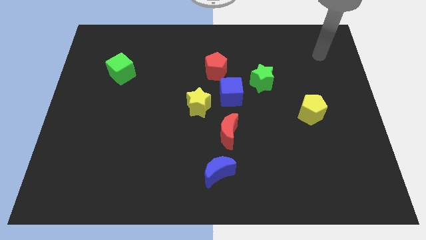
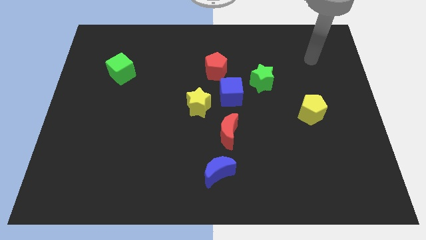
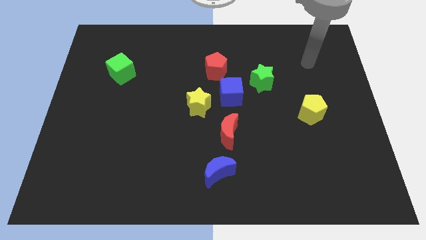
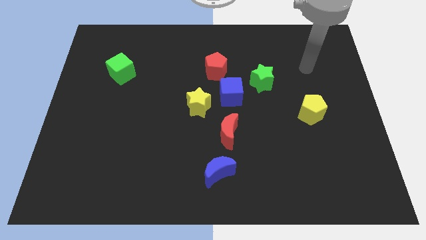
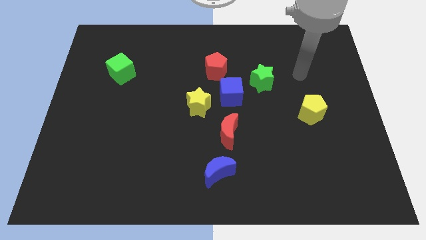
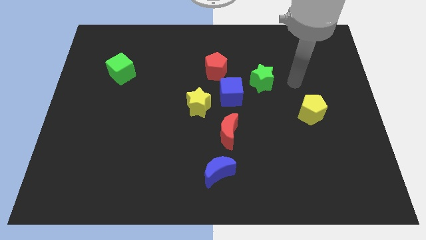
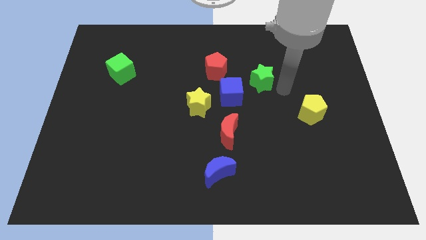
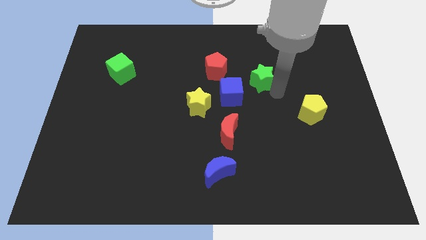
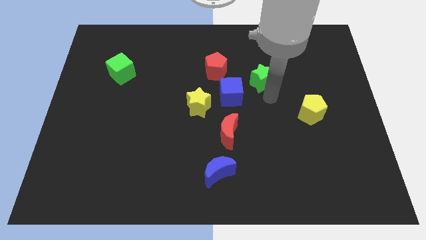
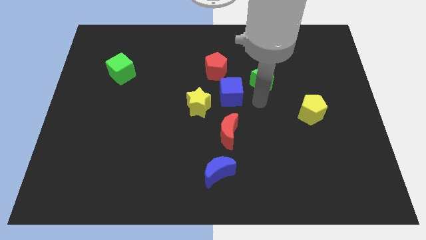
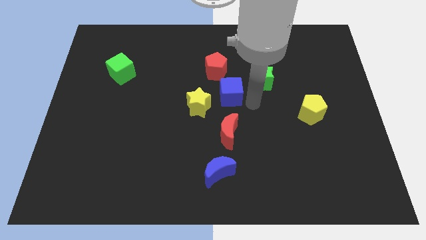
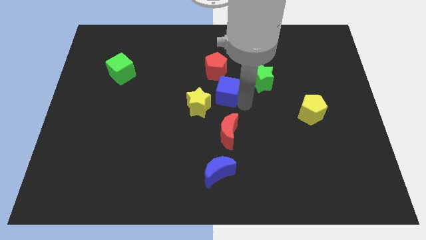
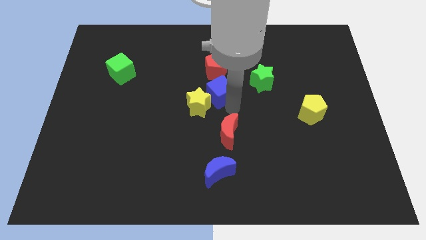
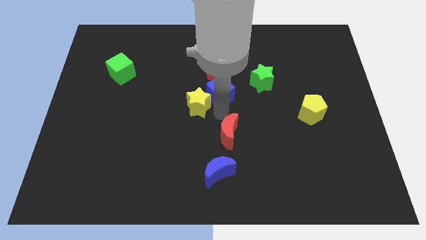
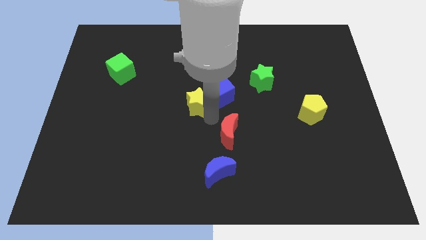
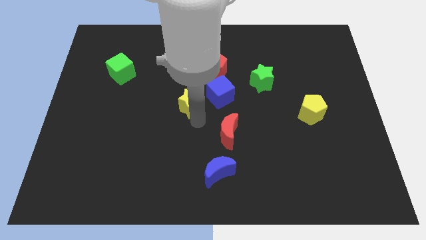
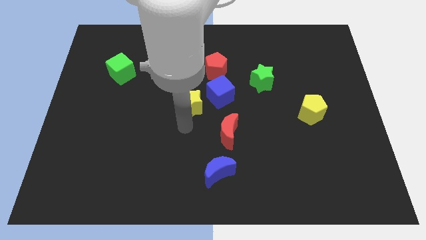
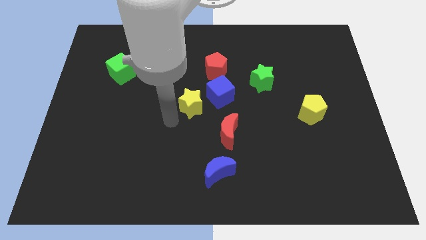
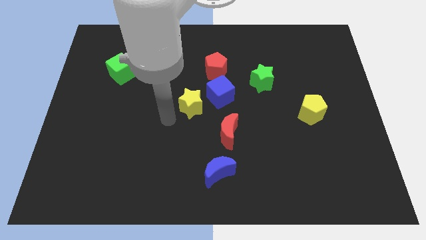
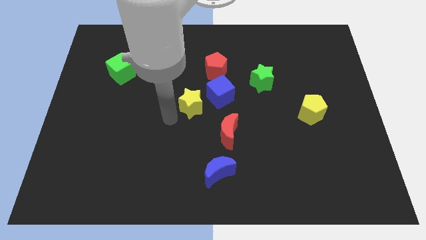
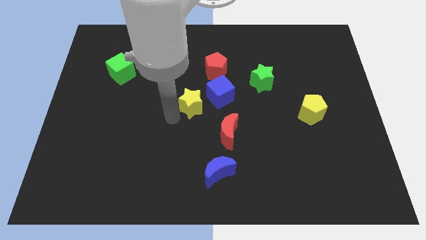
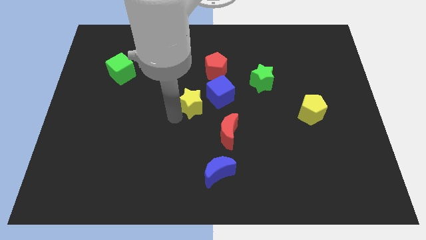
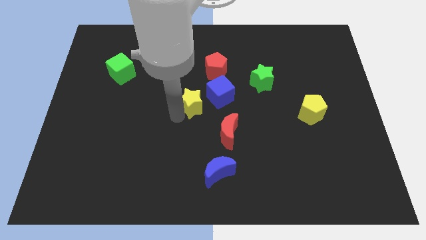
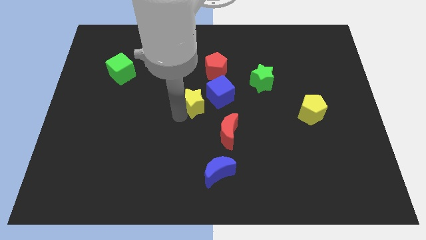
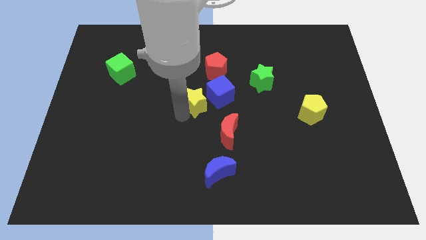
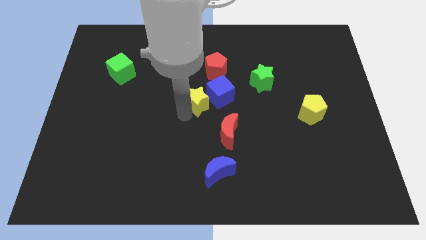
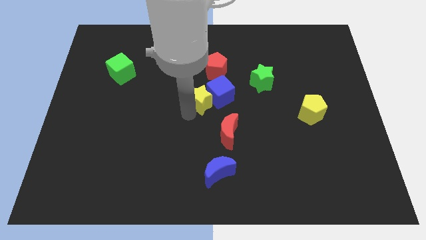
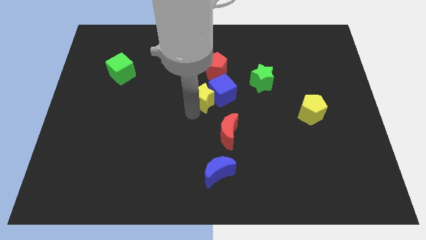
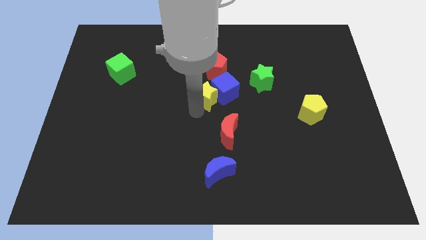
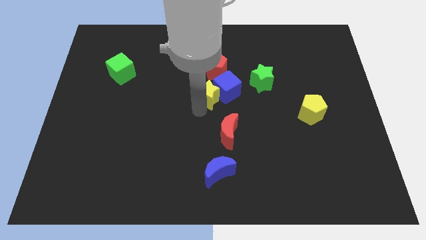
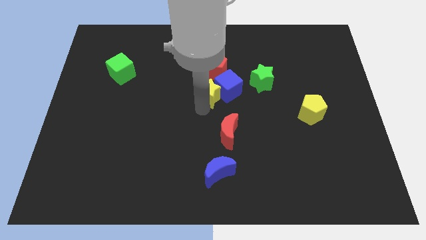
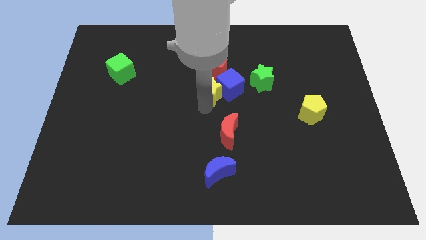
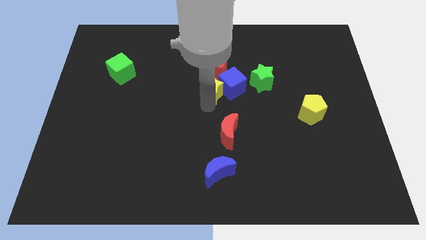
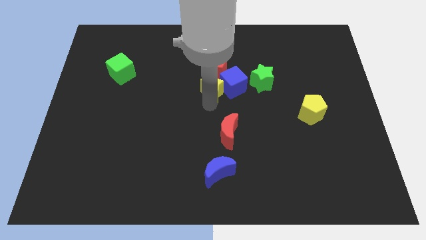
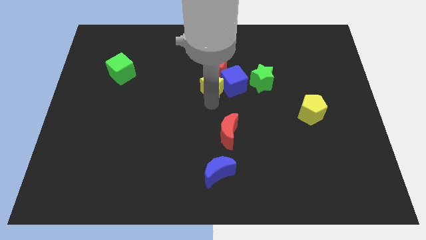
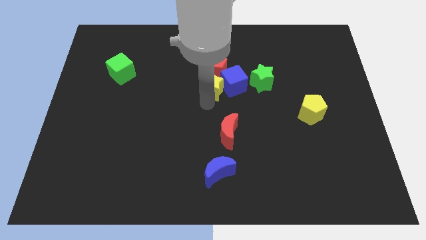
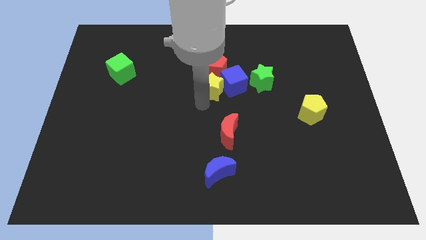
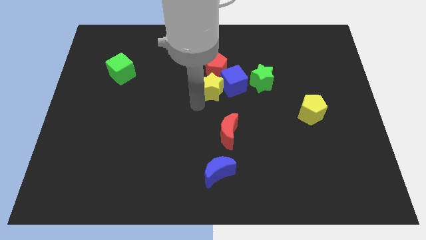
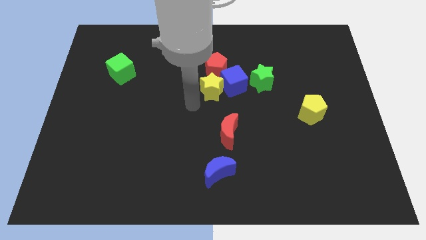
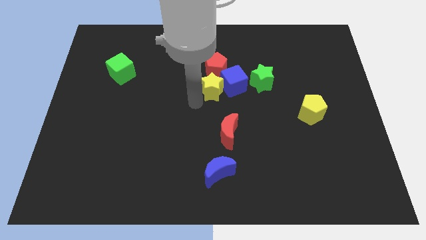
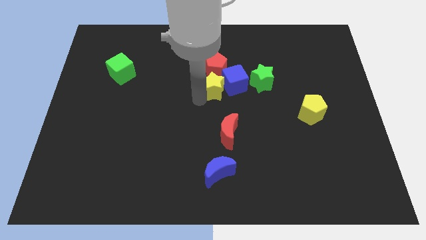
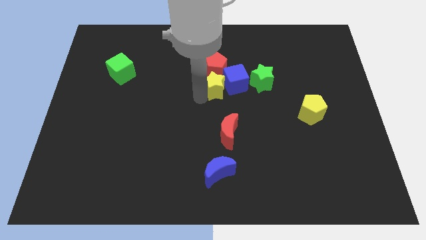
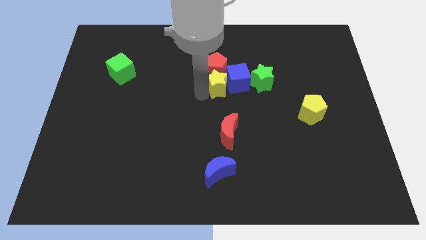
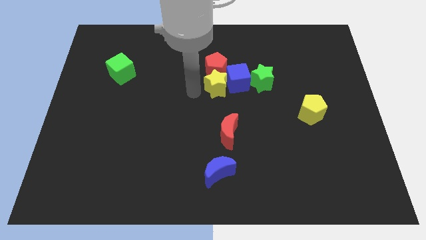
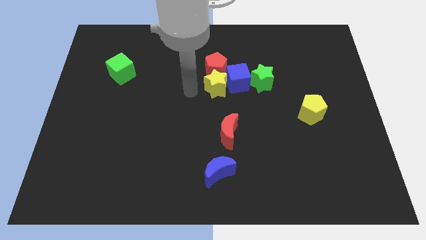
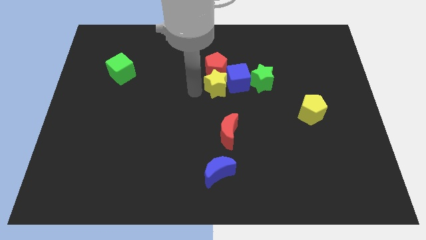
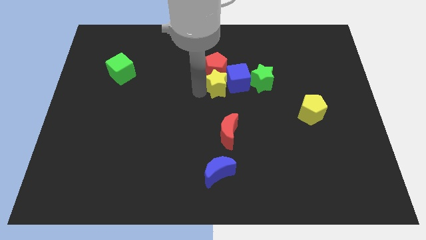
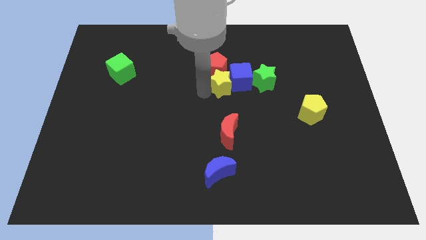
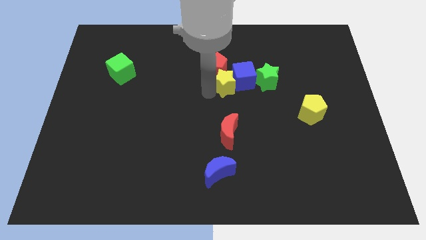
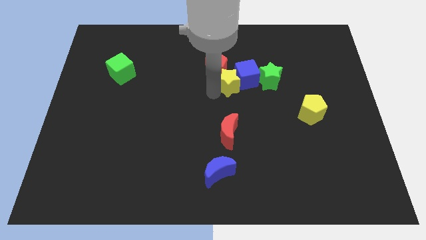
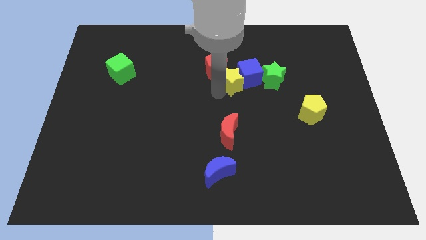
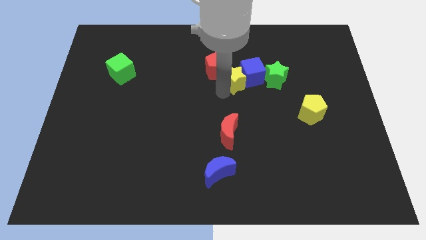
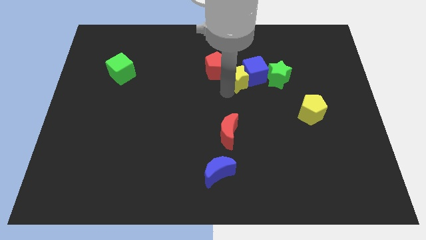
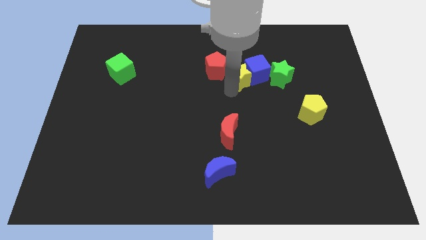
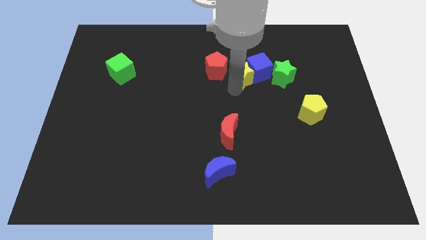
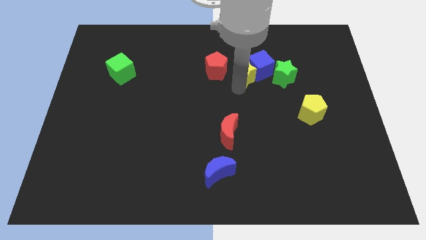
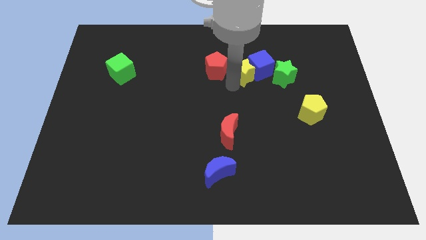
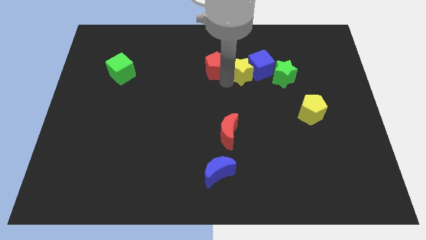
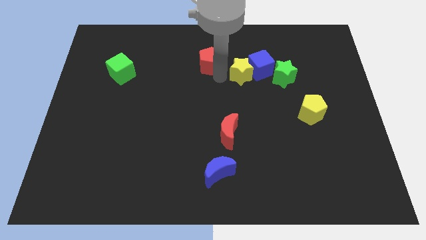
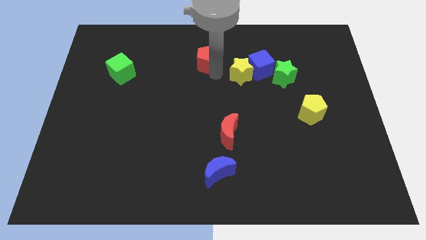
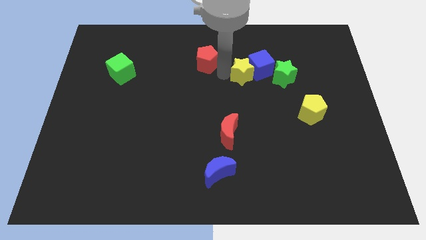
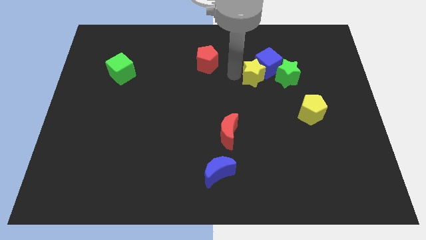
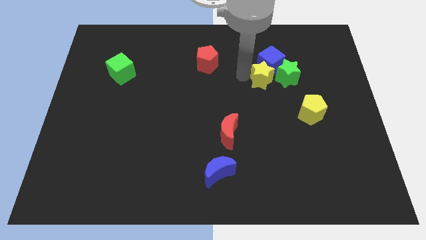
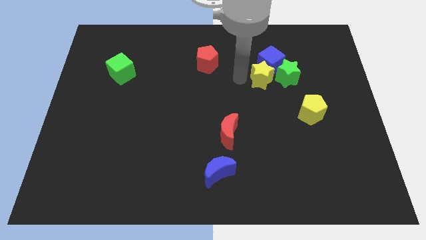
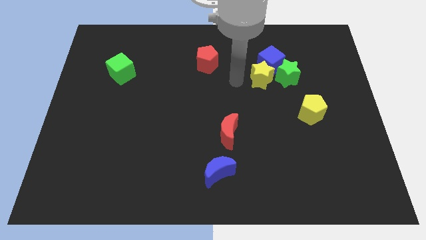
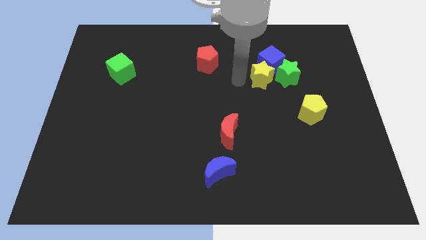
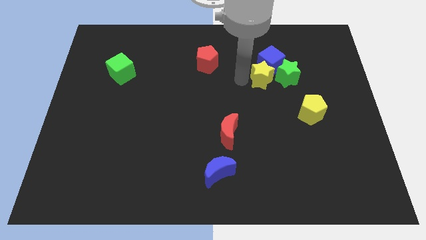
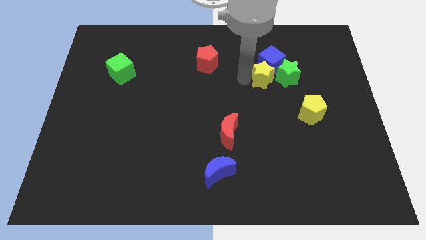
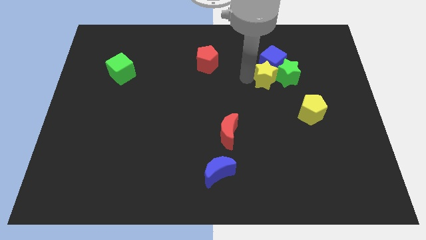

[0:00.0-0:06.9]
slide the yellow star towards the green star
